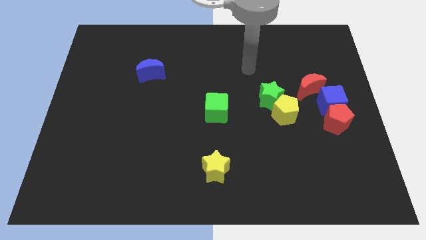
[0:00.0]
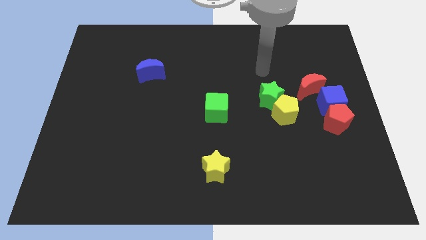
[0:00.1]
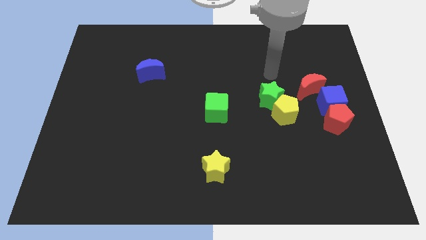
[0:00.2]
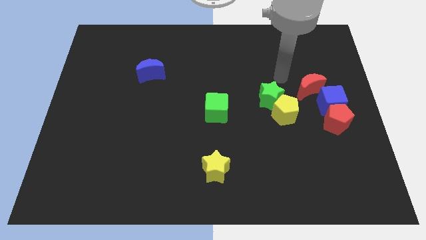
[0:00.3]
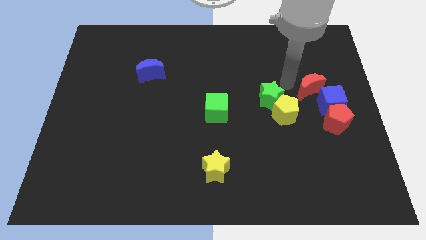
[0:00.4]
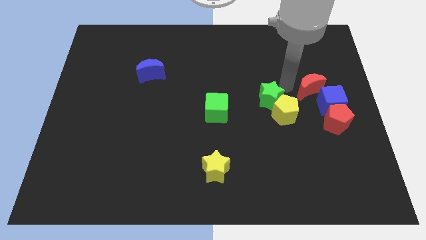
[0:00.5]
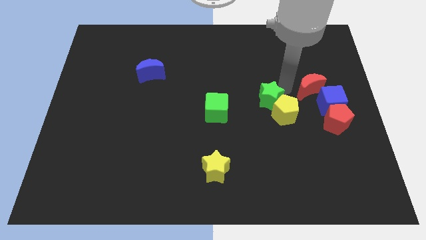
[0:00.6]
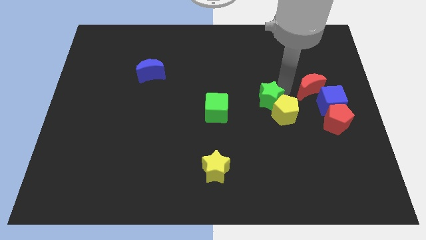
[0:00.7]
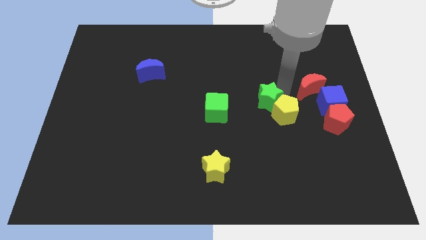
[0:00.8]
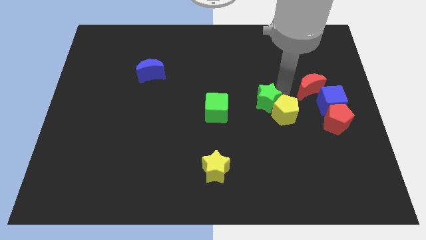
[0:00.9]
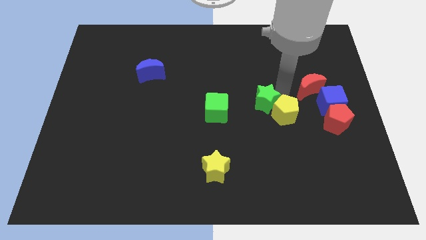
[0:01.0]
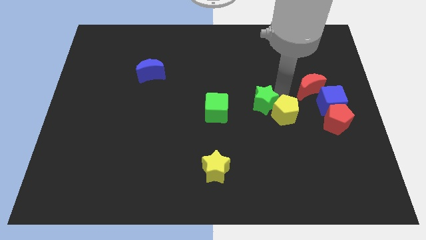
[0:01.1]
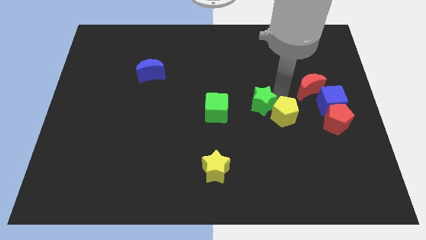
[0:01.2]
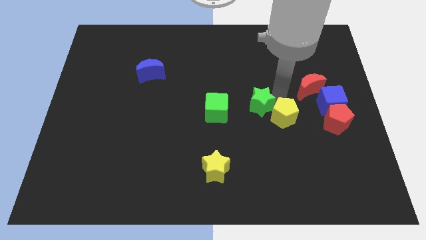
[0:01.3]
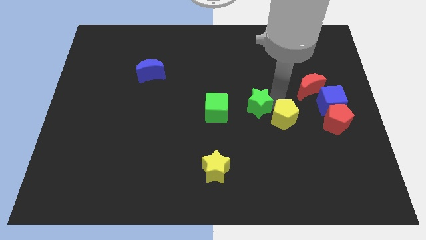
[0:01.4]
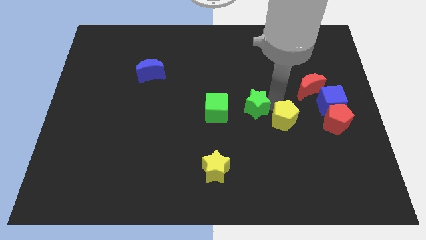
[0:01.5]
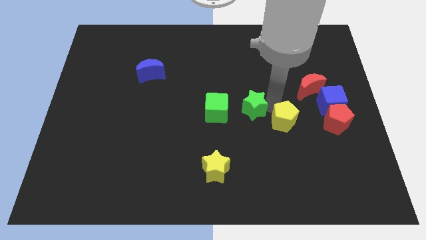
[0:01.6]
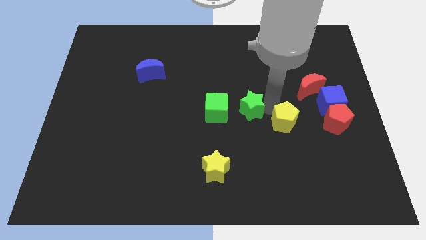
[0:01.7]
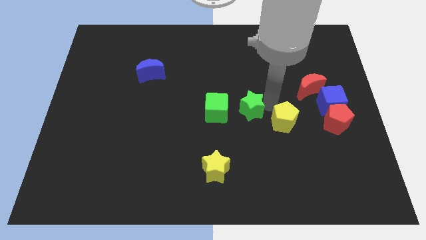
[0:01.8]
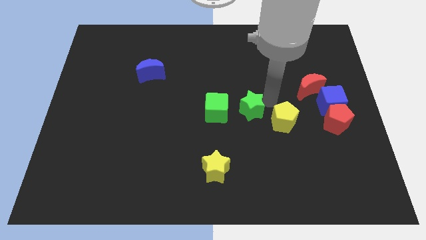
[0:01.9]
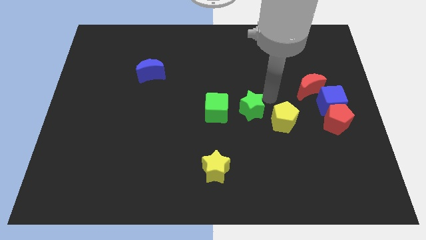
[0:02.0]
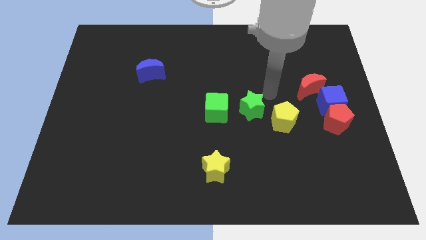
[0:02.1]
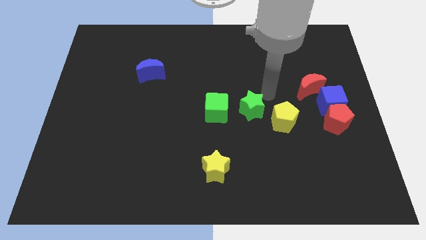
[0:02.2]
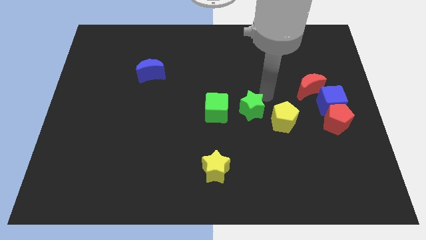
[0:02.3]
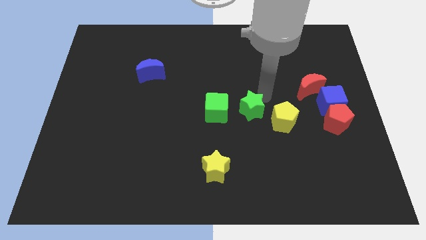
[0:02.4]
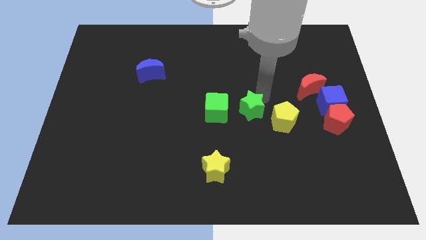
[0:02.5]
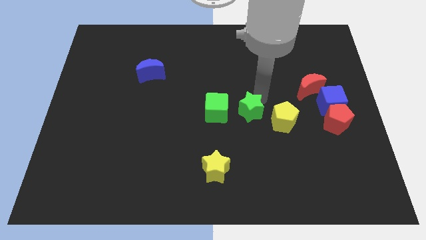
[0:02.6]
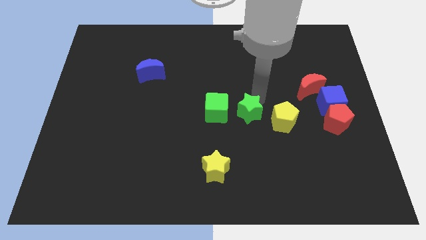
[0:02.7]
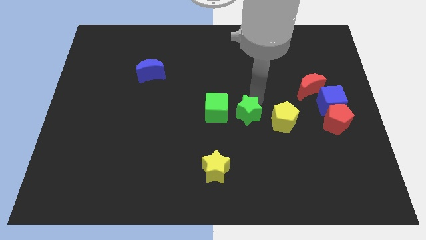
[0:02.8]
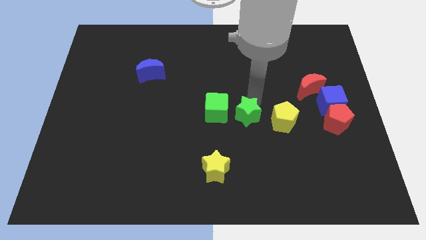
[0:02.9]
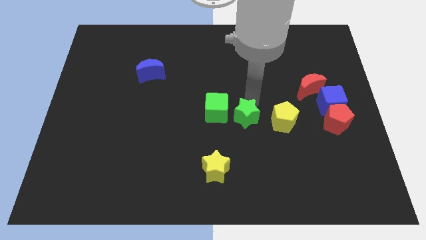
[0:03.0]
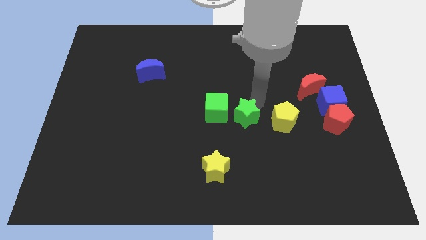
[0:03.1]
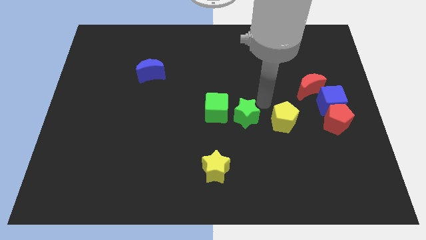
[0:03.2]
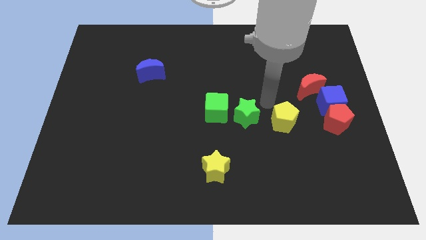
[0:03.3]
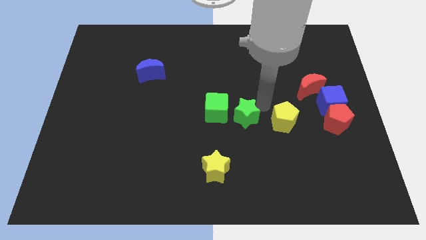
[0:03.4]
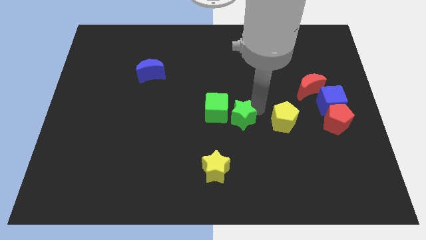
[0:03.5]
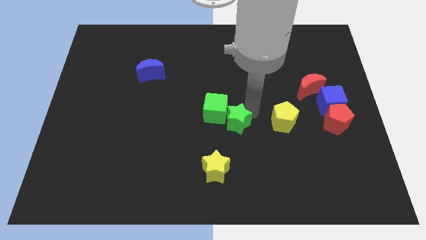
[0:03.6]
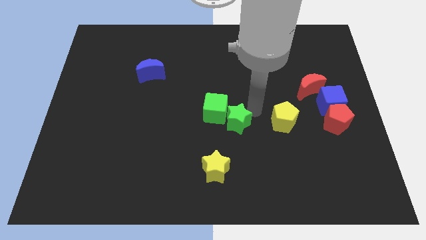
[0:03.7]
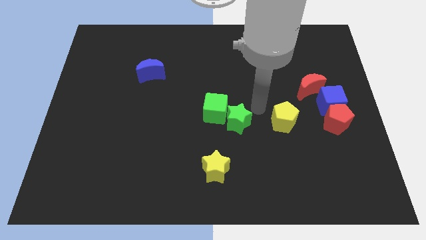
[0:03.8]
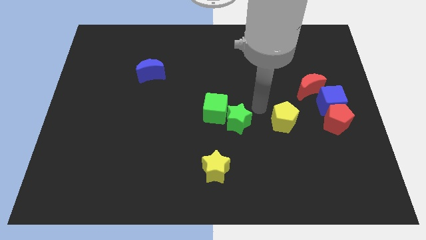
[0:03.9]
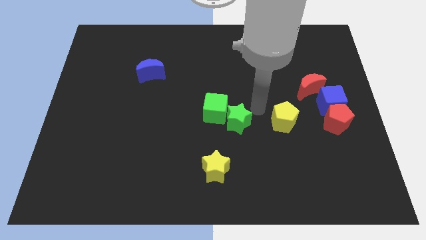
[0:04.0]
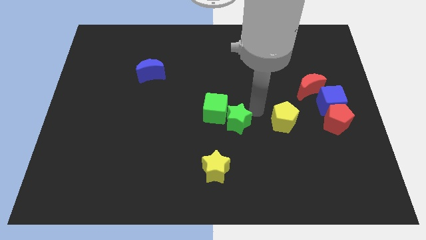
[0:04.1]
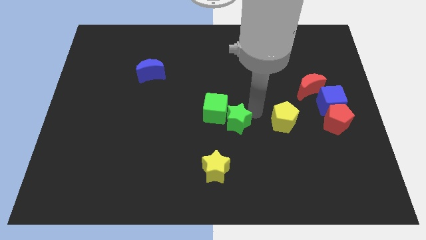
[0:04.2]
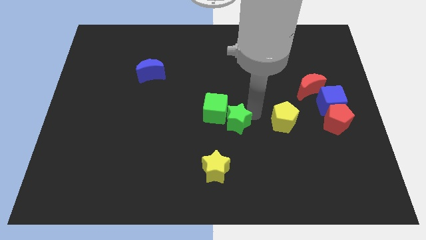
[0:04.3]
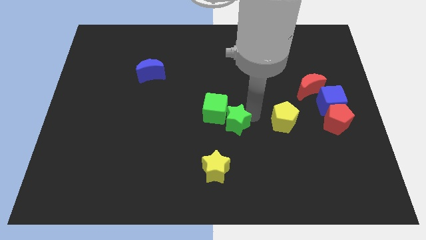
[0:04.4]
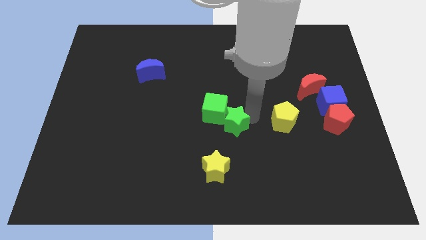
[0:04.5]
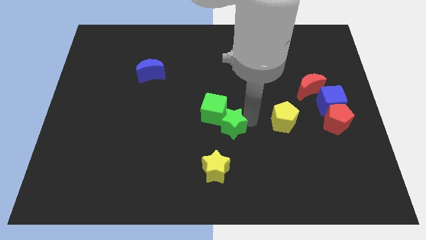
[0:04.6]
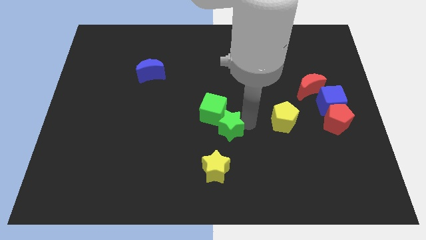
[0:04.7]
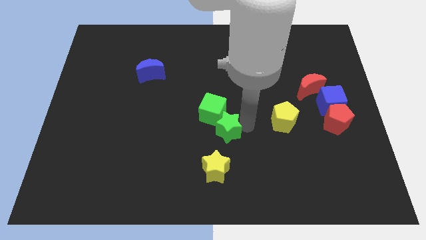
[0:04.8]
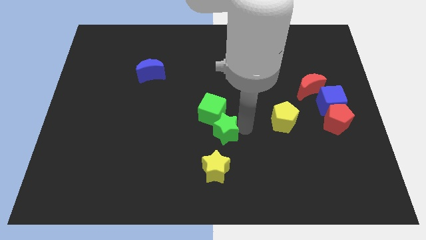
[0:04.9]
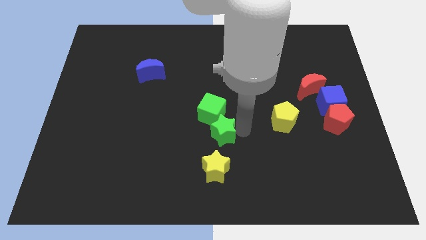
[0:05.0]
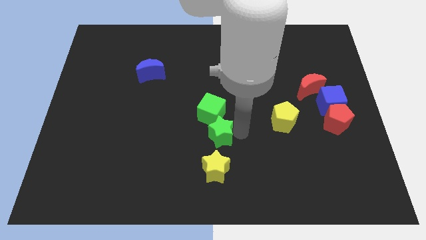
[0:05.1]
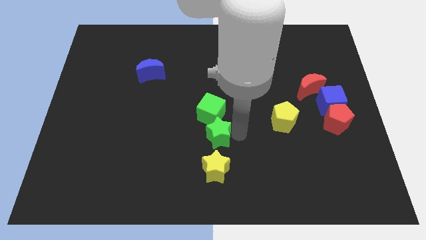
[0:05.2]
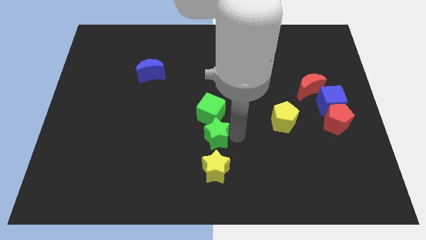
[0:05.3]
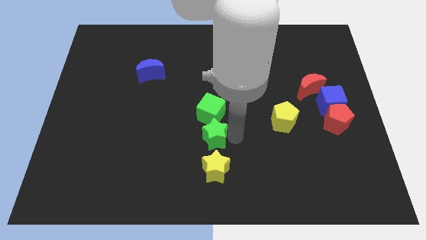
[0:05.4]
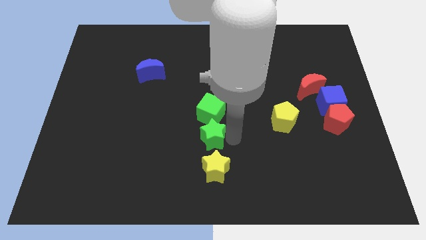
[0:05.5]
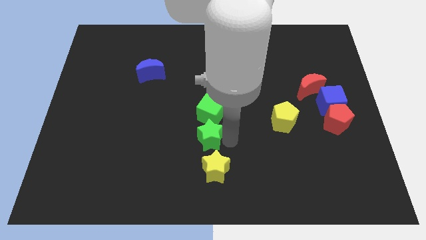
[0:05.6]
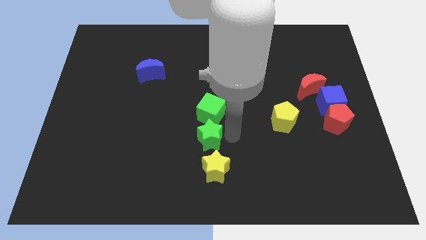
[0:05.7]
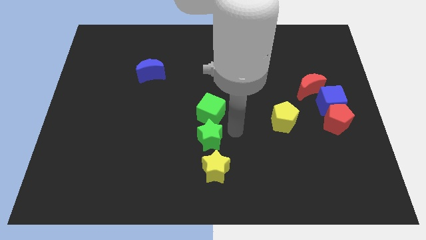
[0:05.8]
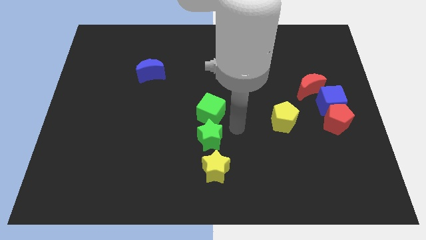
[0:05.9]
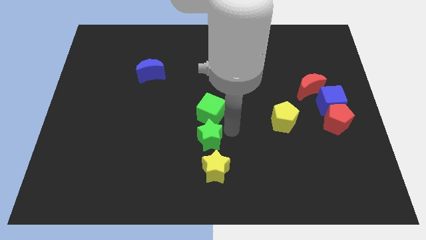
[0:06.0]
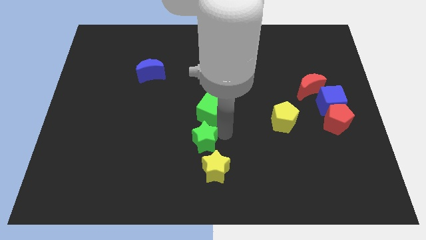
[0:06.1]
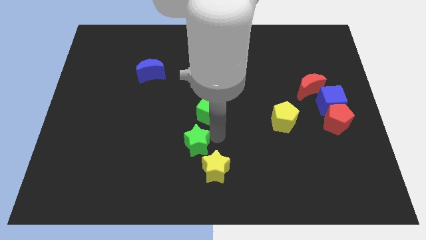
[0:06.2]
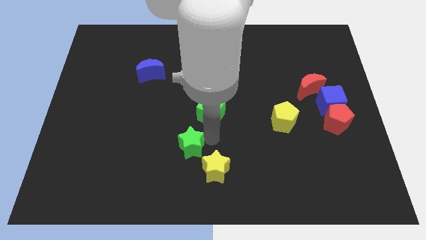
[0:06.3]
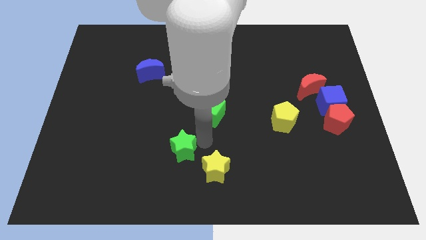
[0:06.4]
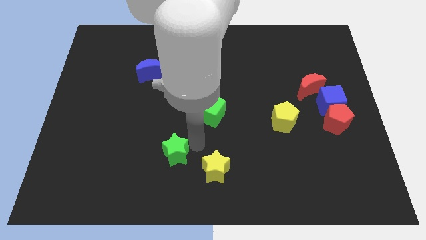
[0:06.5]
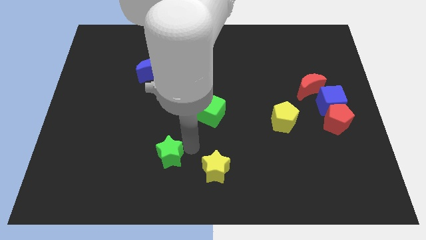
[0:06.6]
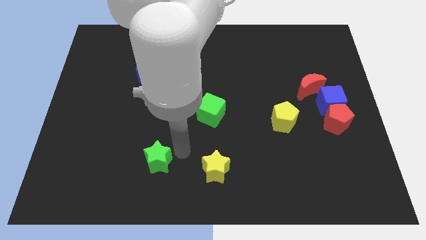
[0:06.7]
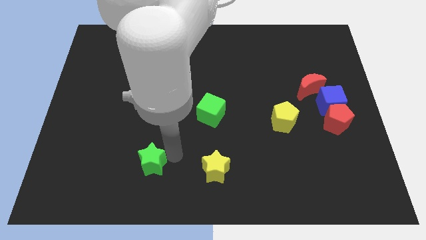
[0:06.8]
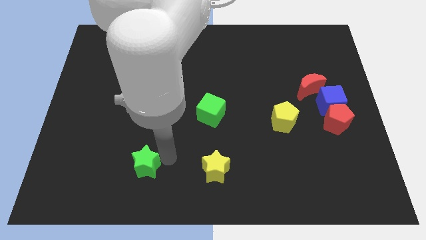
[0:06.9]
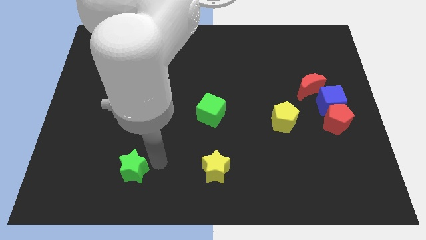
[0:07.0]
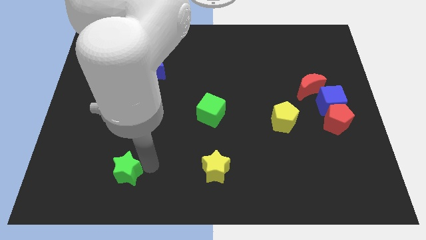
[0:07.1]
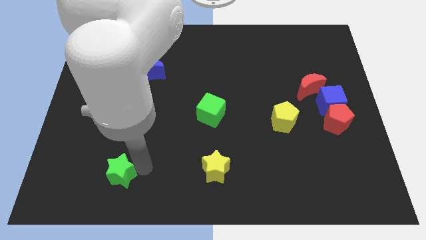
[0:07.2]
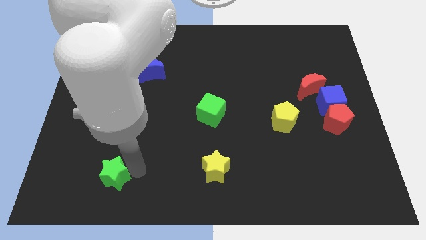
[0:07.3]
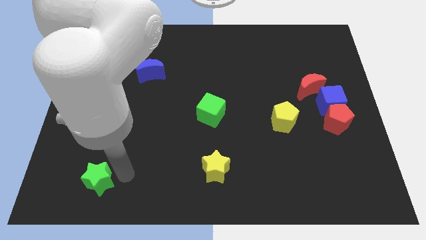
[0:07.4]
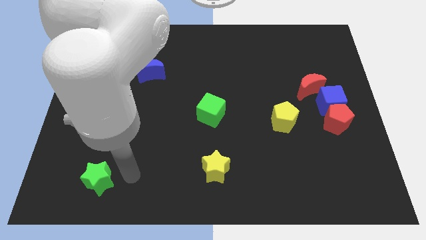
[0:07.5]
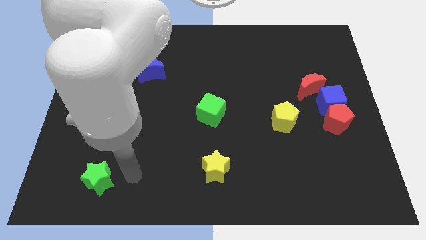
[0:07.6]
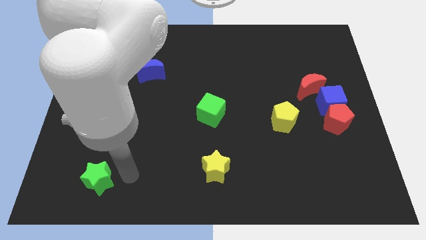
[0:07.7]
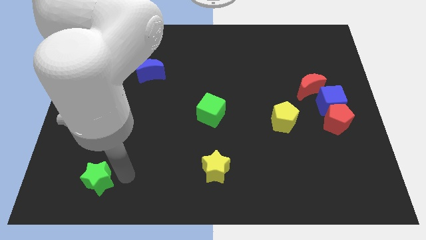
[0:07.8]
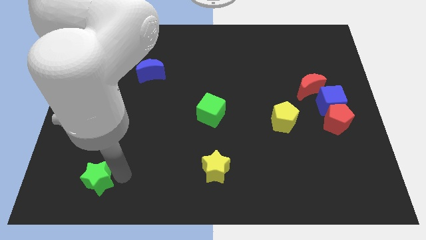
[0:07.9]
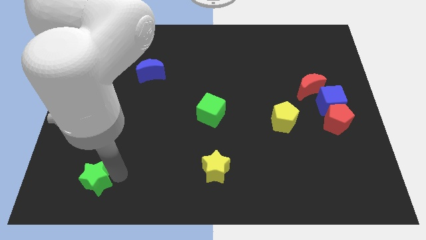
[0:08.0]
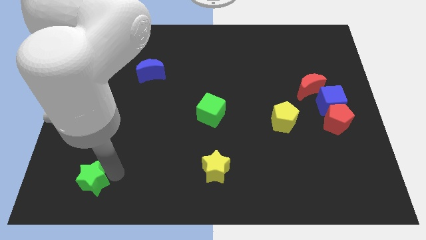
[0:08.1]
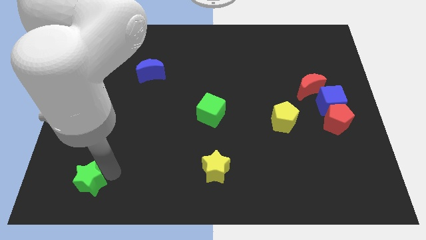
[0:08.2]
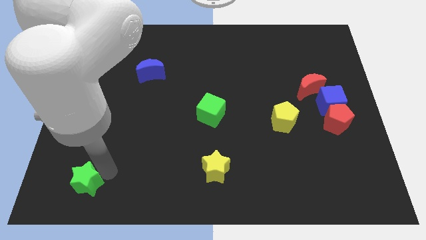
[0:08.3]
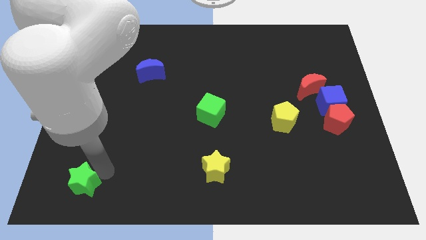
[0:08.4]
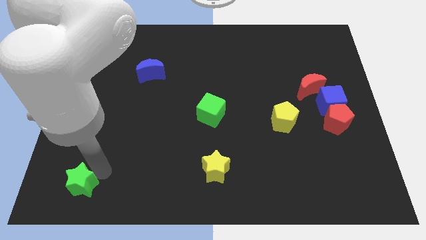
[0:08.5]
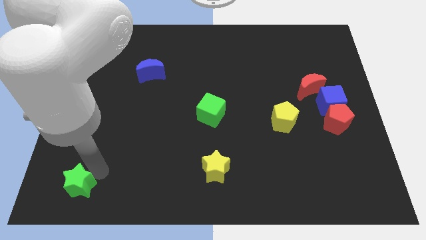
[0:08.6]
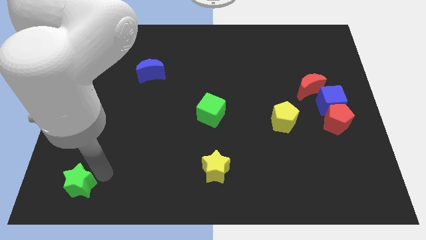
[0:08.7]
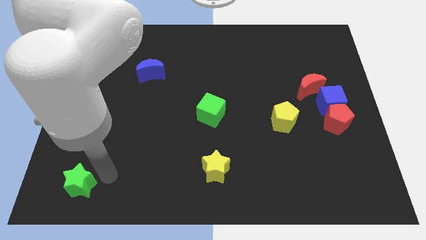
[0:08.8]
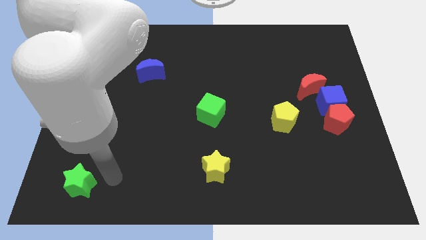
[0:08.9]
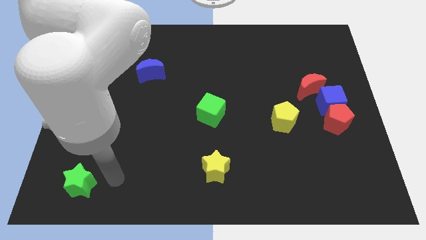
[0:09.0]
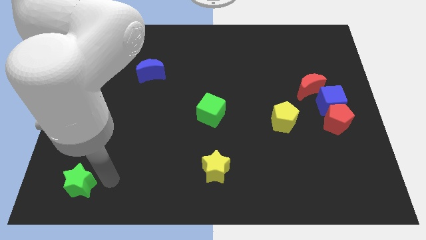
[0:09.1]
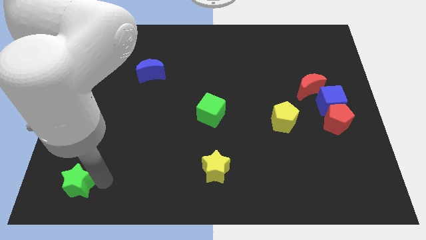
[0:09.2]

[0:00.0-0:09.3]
move the green star to the lower left corner
